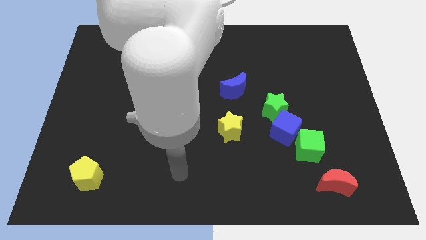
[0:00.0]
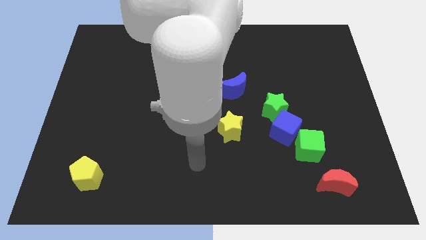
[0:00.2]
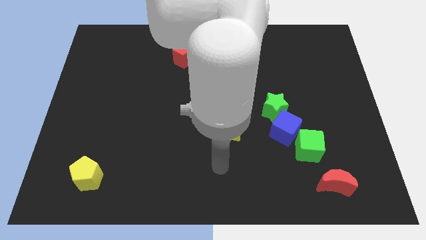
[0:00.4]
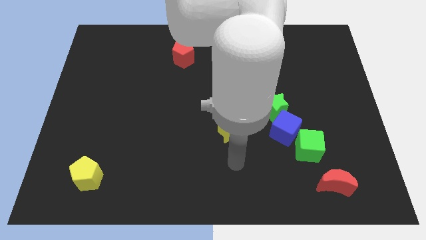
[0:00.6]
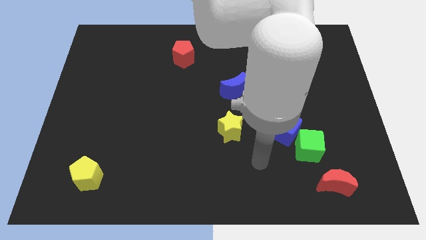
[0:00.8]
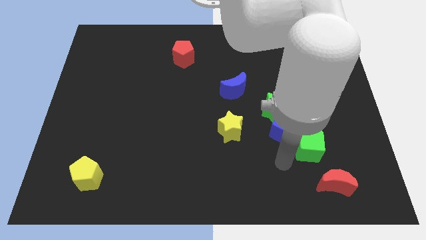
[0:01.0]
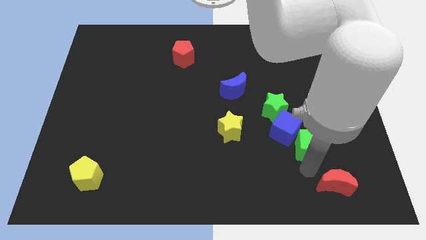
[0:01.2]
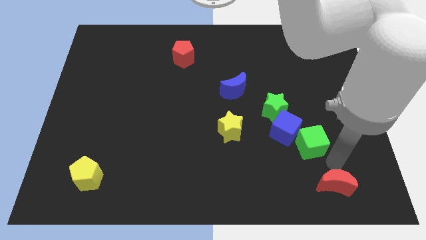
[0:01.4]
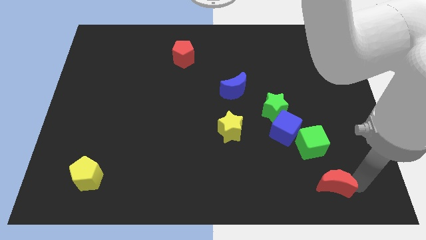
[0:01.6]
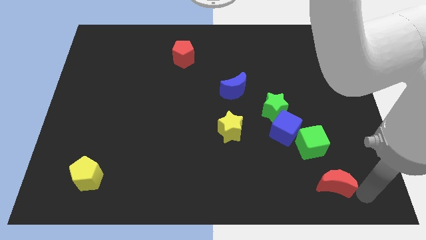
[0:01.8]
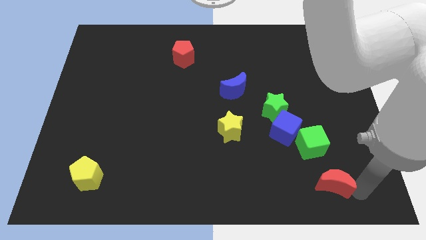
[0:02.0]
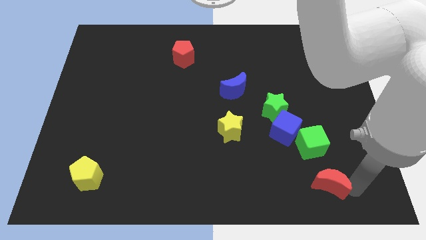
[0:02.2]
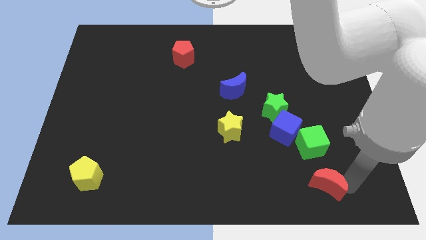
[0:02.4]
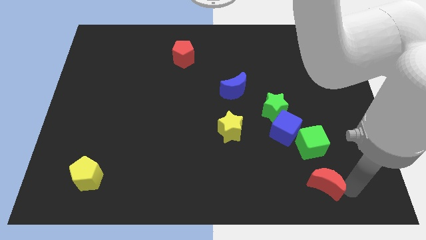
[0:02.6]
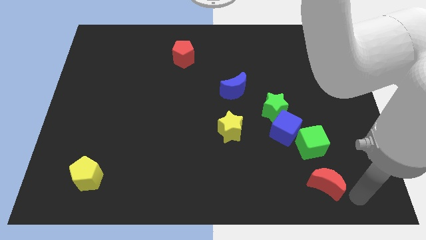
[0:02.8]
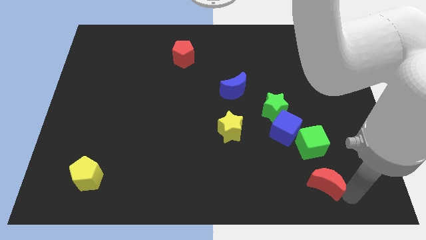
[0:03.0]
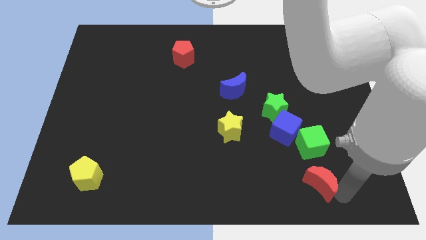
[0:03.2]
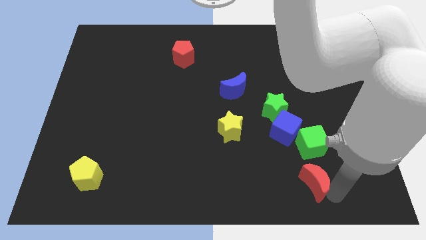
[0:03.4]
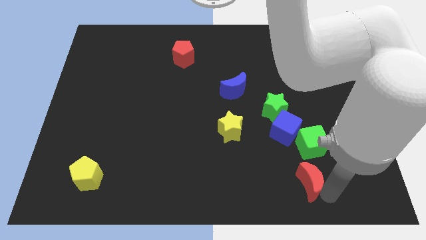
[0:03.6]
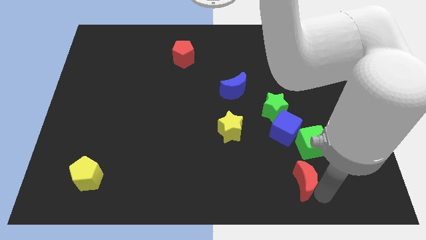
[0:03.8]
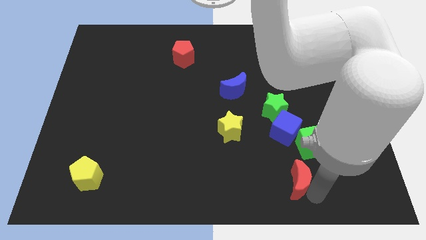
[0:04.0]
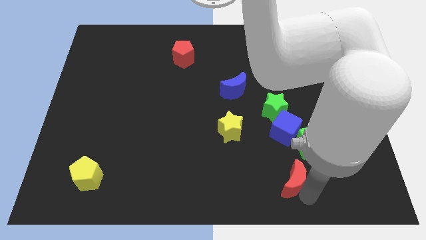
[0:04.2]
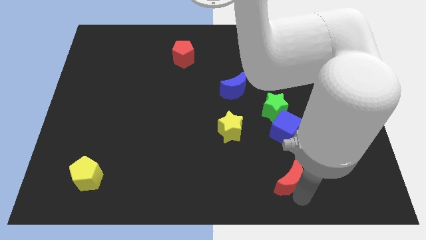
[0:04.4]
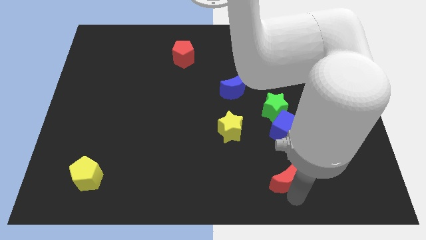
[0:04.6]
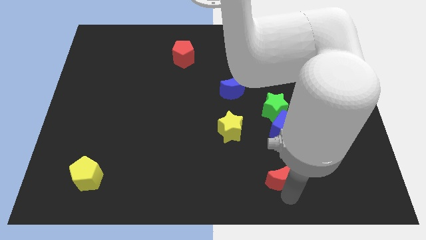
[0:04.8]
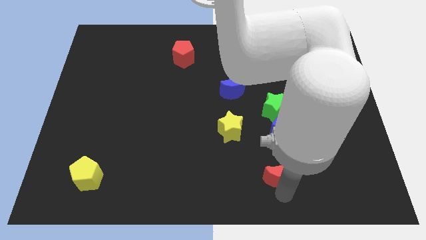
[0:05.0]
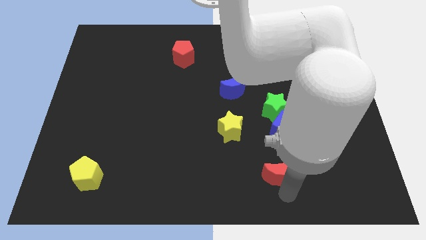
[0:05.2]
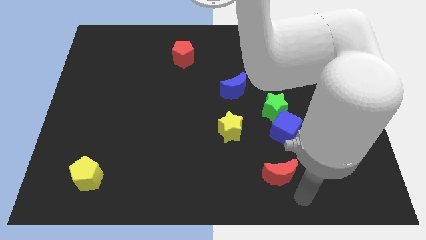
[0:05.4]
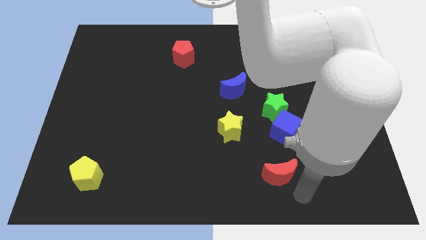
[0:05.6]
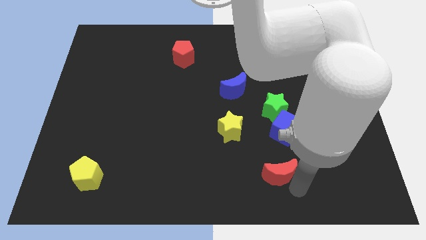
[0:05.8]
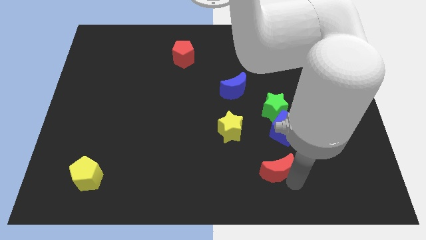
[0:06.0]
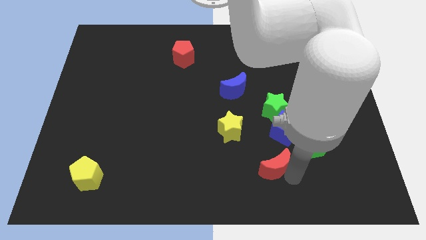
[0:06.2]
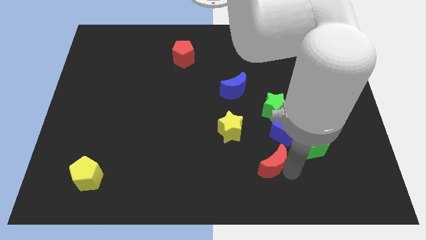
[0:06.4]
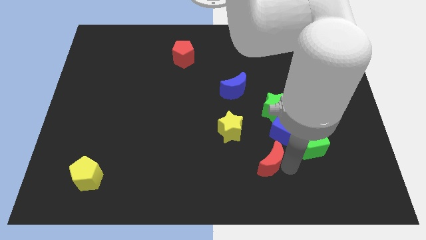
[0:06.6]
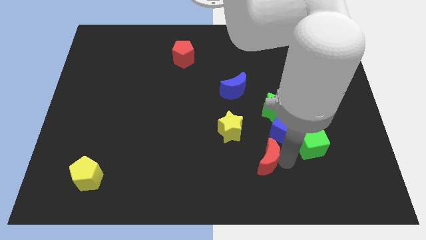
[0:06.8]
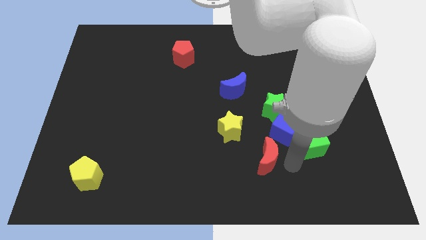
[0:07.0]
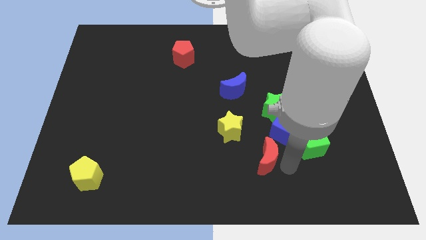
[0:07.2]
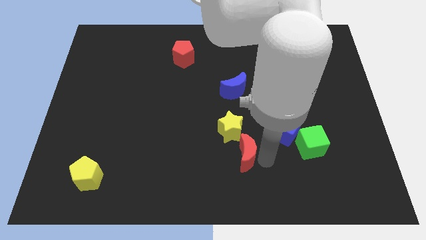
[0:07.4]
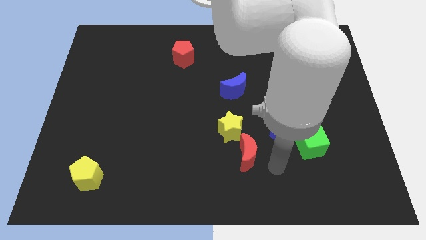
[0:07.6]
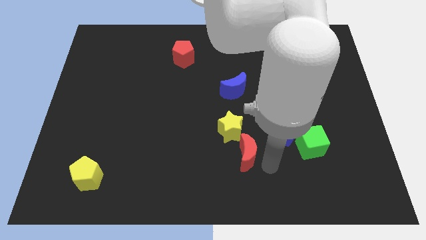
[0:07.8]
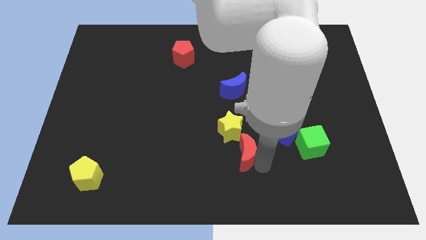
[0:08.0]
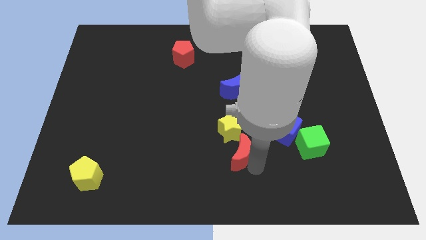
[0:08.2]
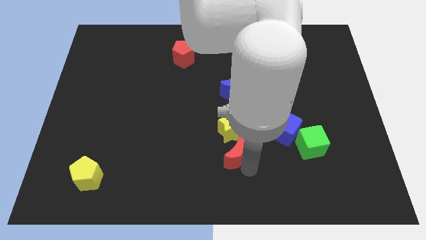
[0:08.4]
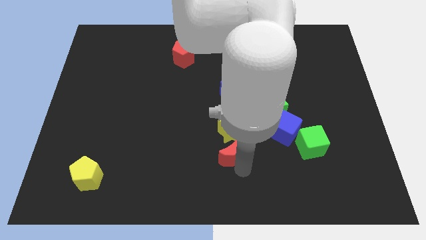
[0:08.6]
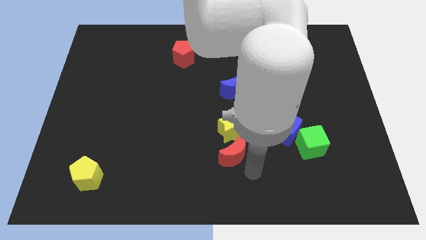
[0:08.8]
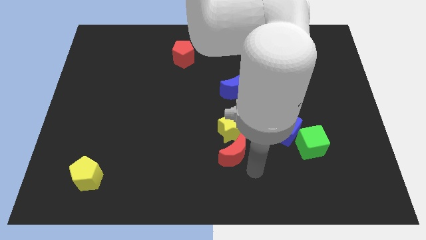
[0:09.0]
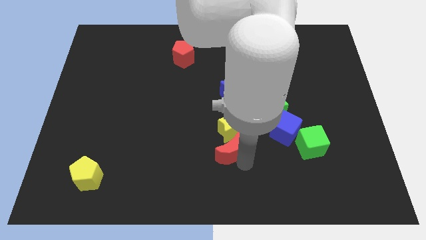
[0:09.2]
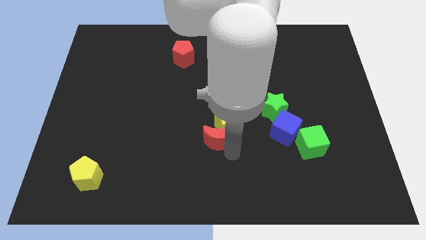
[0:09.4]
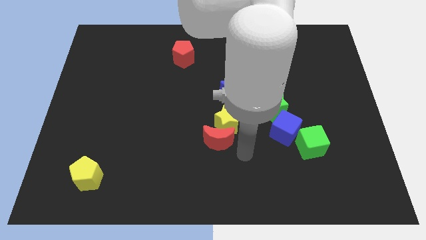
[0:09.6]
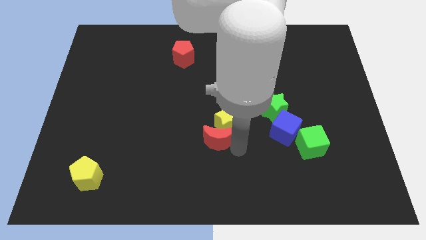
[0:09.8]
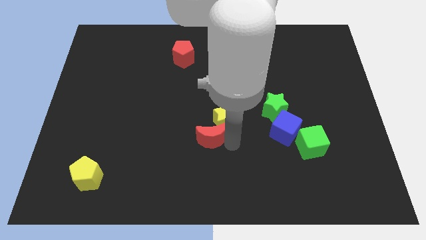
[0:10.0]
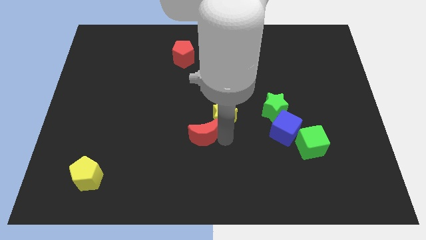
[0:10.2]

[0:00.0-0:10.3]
push the red moon just left of the yellow star

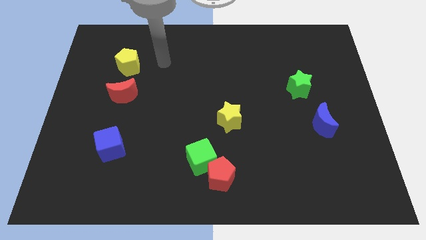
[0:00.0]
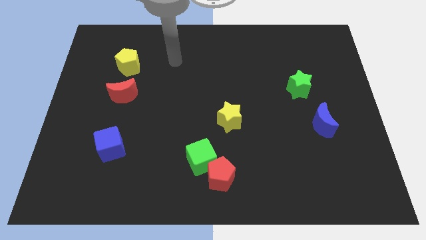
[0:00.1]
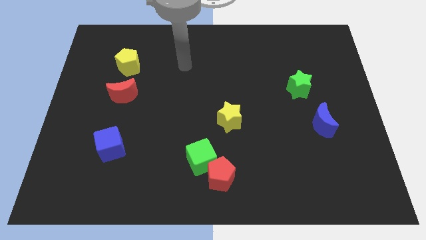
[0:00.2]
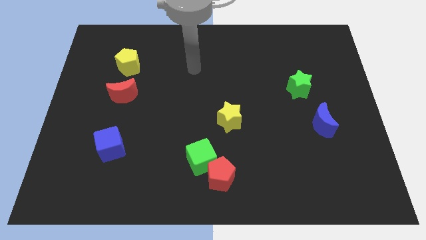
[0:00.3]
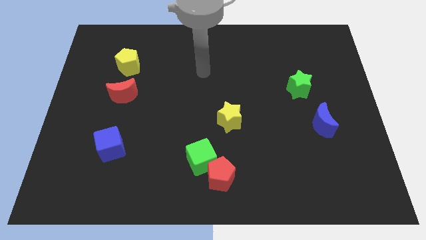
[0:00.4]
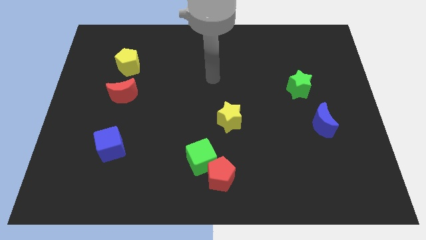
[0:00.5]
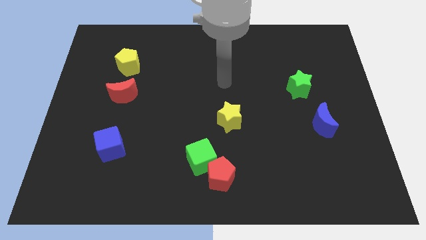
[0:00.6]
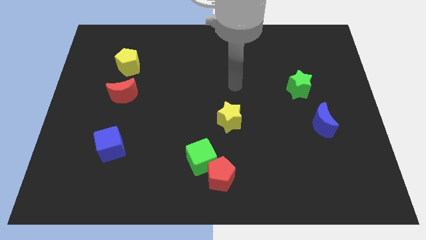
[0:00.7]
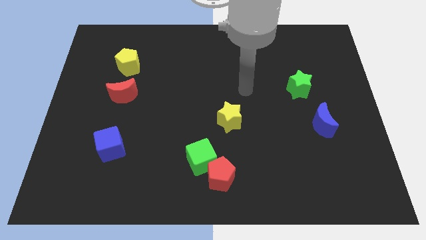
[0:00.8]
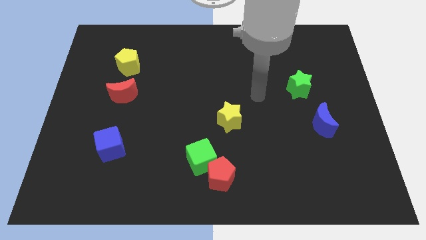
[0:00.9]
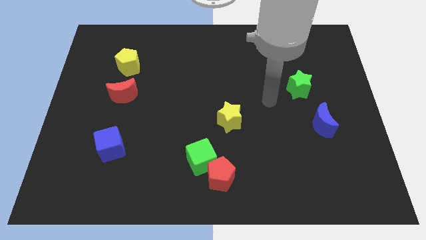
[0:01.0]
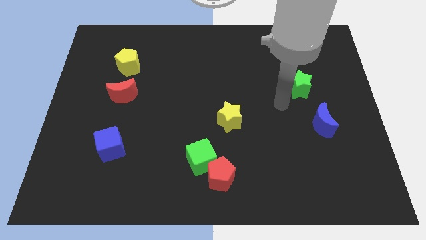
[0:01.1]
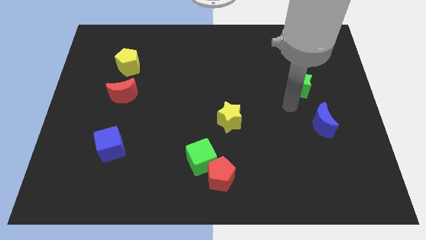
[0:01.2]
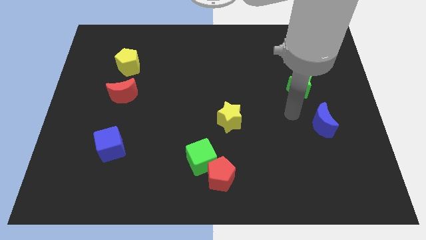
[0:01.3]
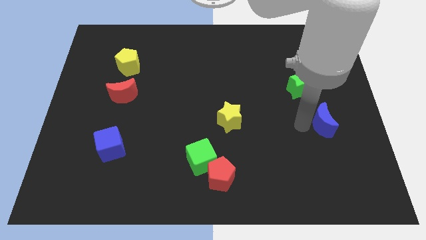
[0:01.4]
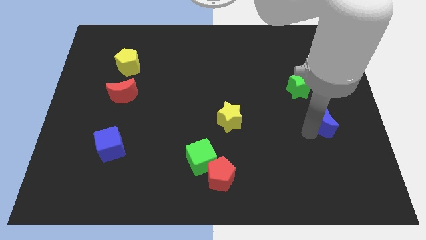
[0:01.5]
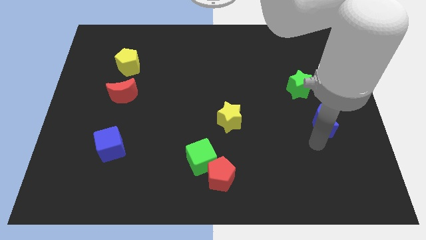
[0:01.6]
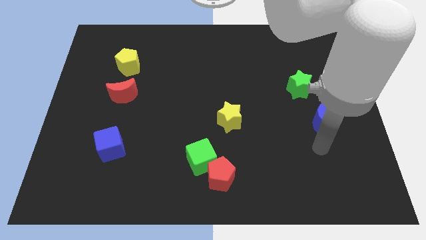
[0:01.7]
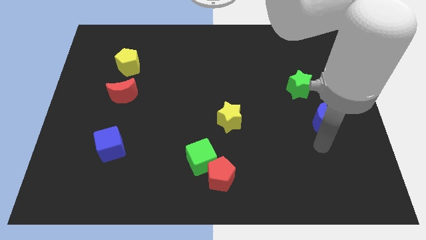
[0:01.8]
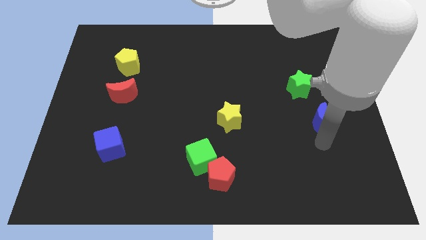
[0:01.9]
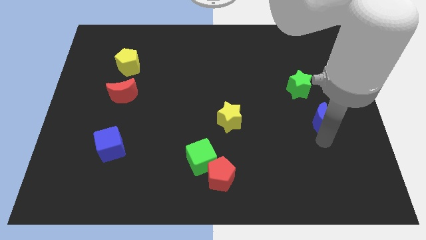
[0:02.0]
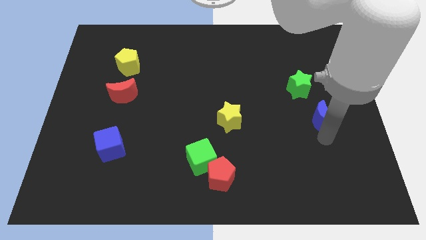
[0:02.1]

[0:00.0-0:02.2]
push the blue moon diagonally down and to the right of the green star
